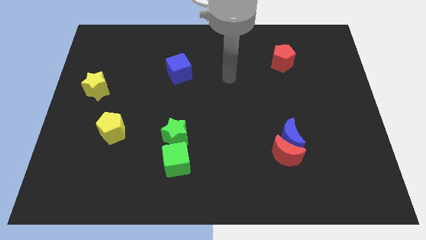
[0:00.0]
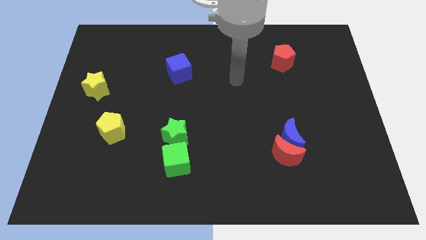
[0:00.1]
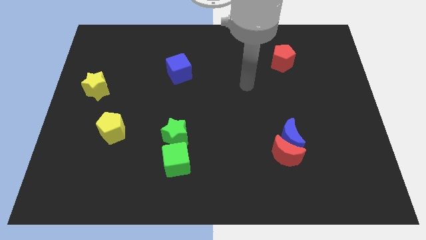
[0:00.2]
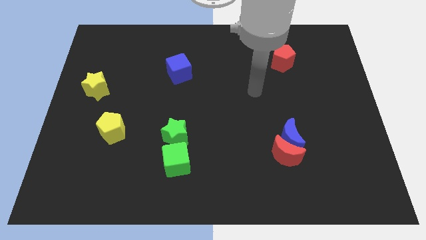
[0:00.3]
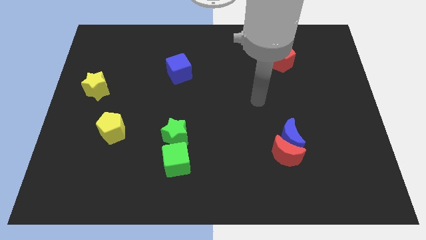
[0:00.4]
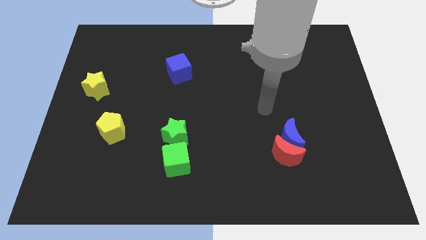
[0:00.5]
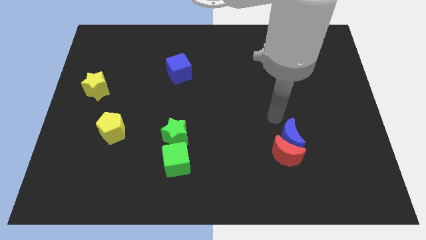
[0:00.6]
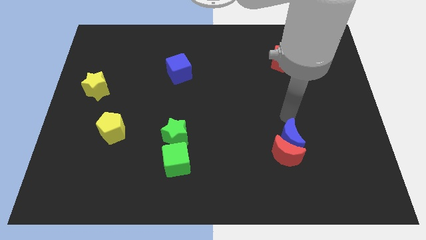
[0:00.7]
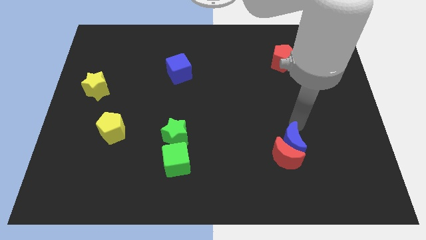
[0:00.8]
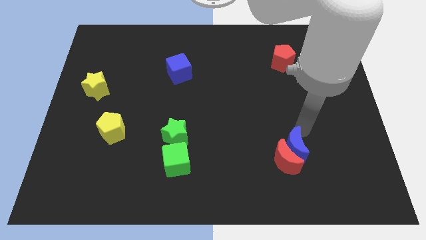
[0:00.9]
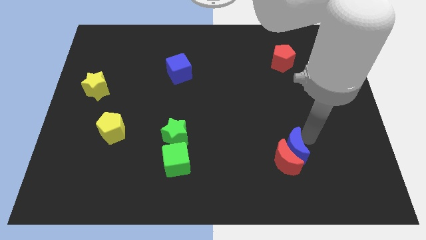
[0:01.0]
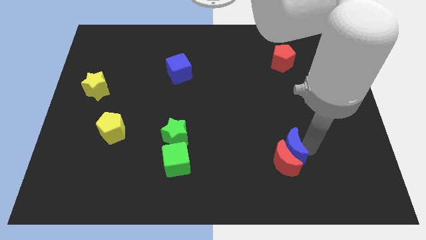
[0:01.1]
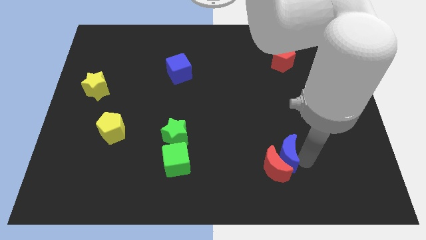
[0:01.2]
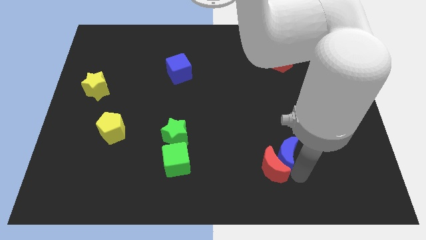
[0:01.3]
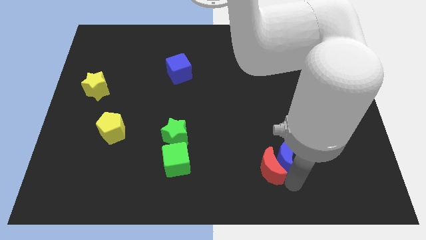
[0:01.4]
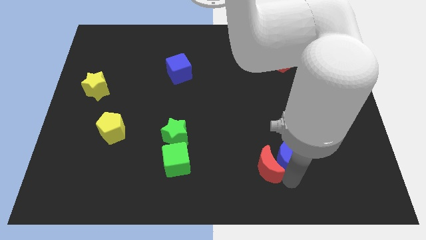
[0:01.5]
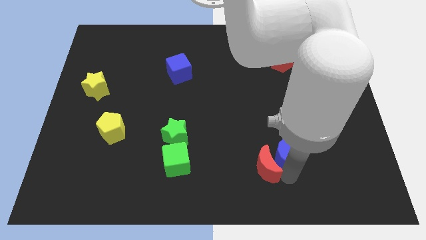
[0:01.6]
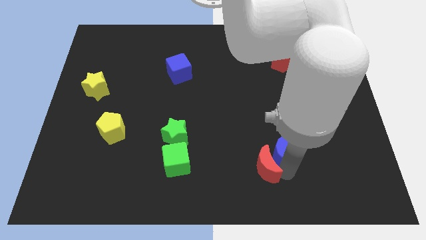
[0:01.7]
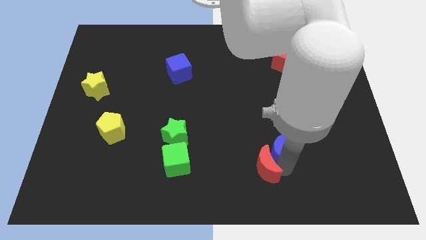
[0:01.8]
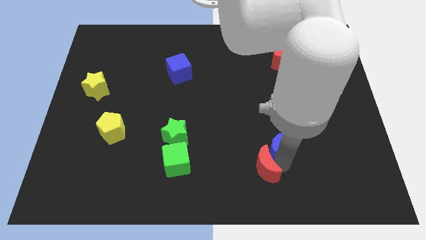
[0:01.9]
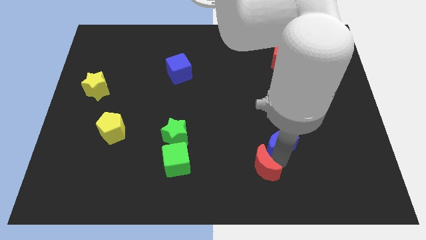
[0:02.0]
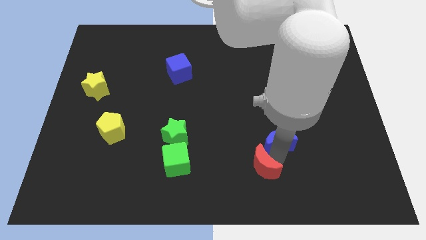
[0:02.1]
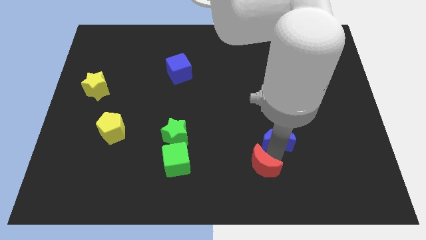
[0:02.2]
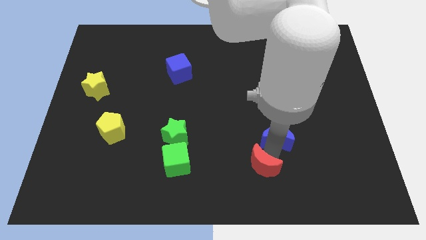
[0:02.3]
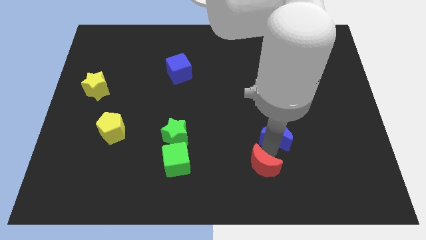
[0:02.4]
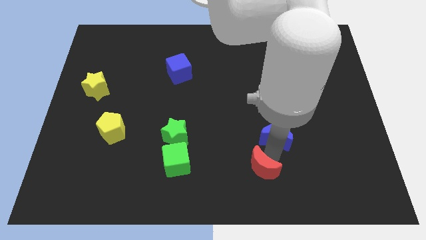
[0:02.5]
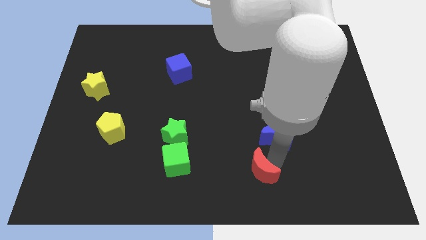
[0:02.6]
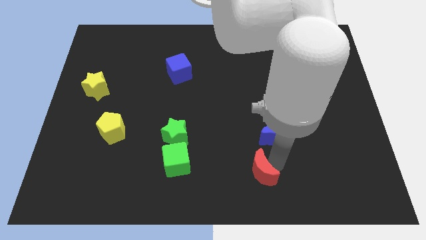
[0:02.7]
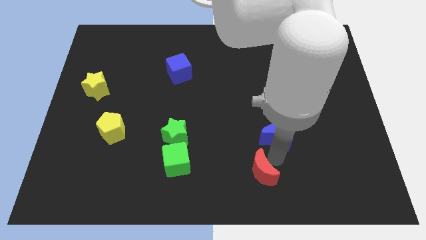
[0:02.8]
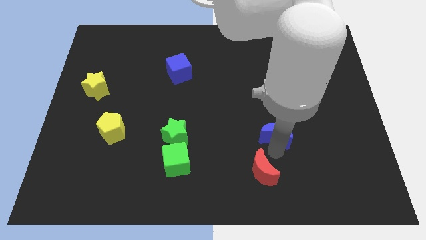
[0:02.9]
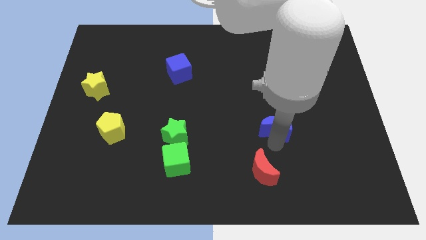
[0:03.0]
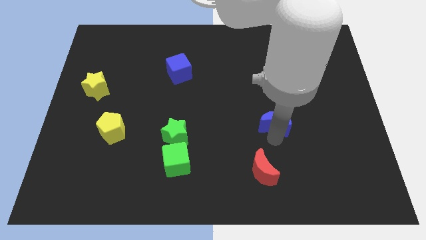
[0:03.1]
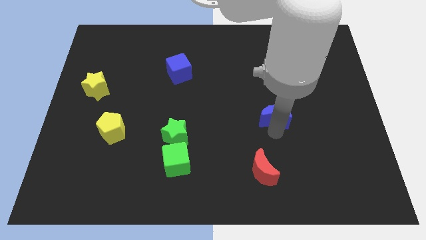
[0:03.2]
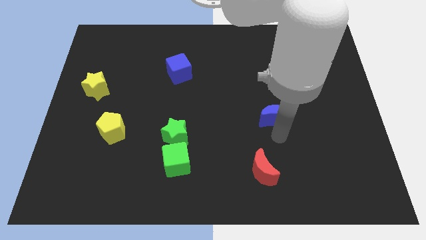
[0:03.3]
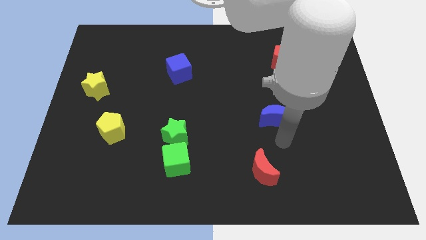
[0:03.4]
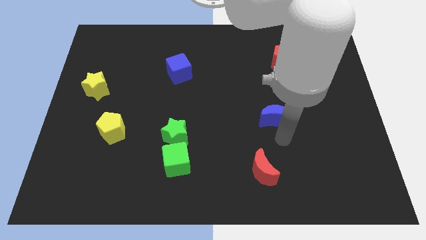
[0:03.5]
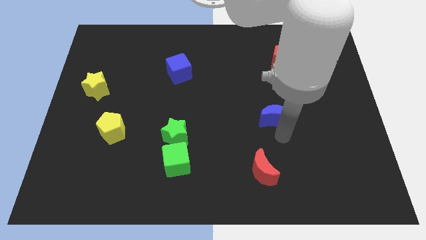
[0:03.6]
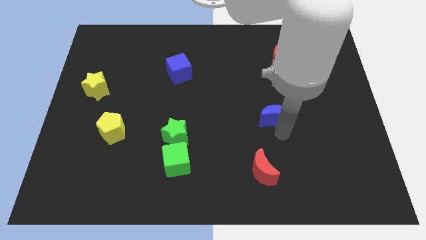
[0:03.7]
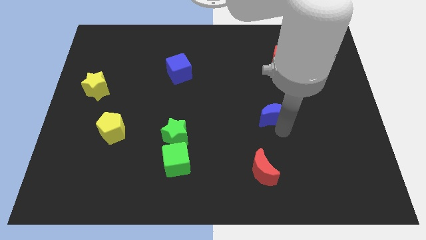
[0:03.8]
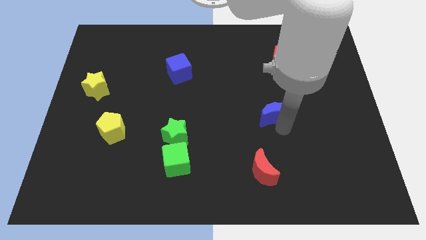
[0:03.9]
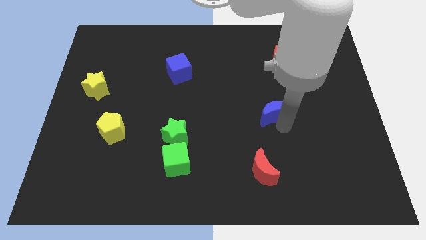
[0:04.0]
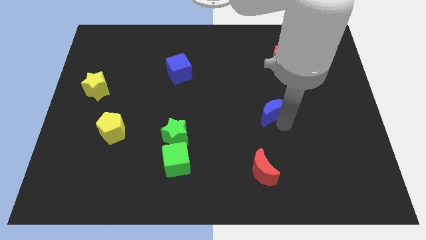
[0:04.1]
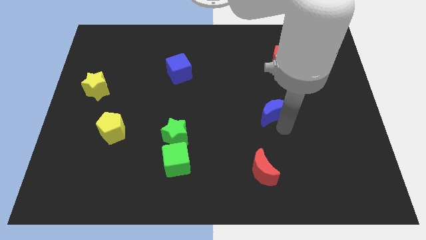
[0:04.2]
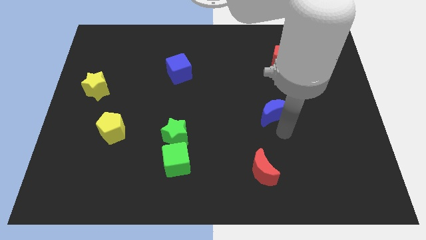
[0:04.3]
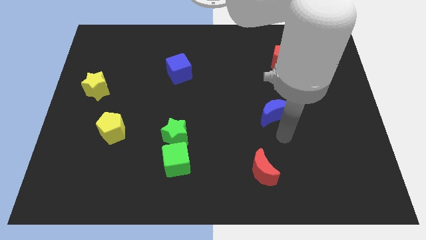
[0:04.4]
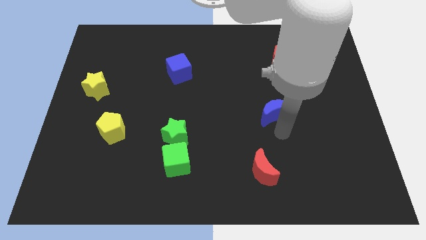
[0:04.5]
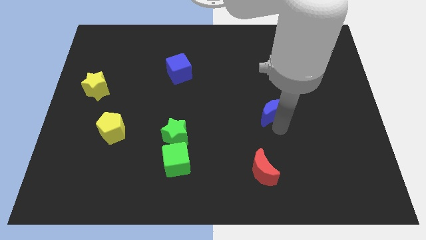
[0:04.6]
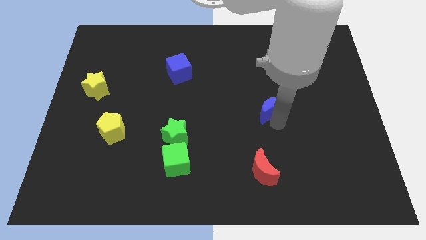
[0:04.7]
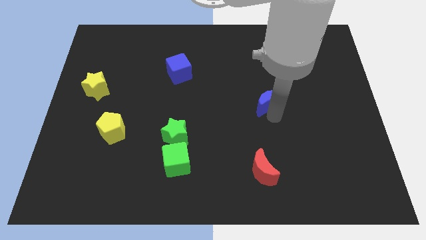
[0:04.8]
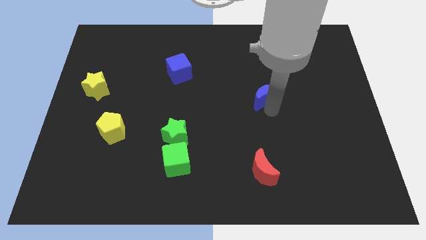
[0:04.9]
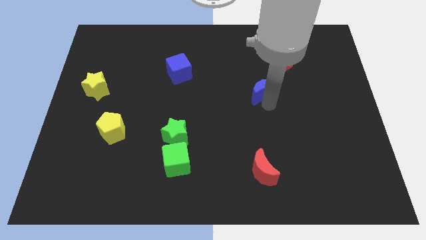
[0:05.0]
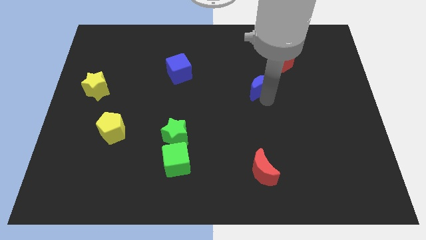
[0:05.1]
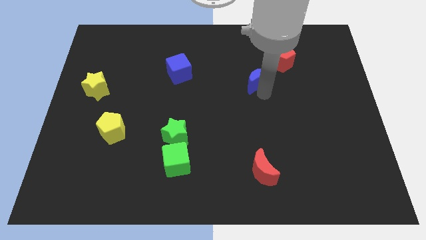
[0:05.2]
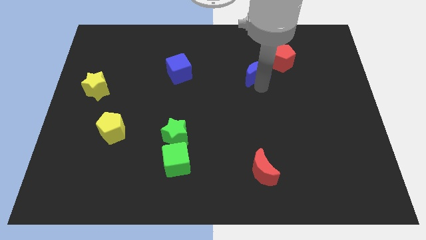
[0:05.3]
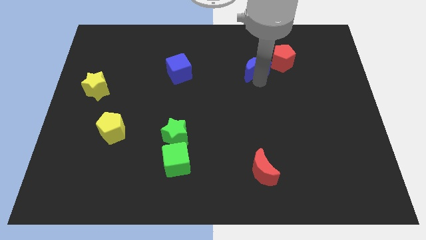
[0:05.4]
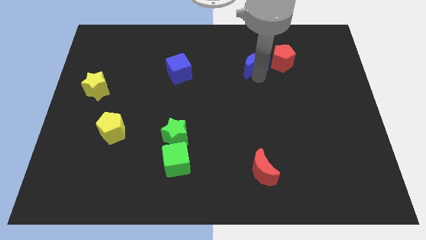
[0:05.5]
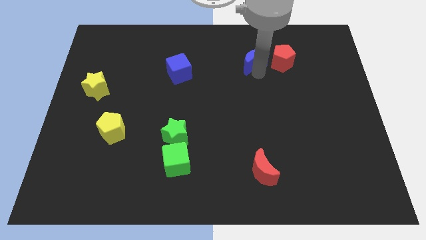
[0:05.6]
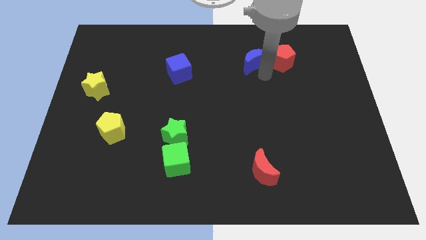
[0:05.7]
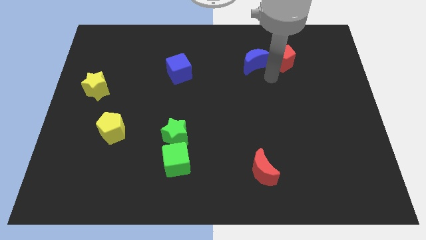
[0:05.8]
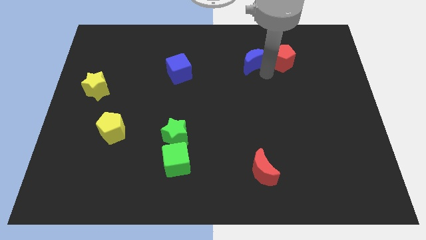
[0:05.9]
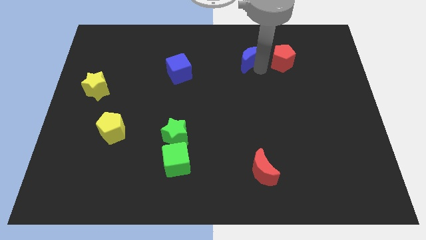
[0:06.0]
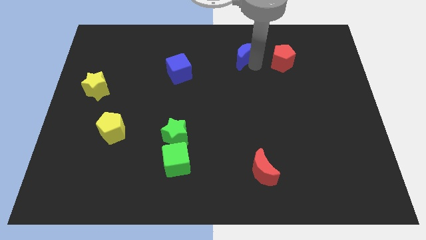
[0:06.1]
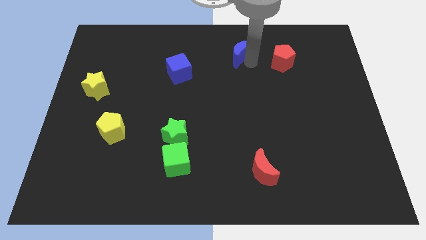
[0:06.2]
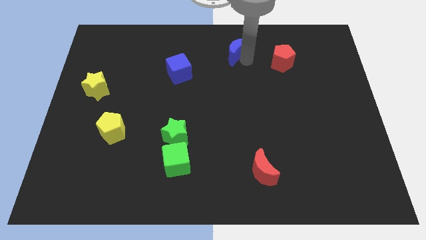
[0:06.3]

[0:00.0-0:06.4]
move the blue moon to the towards your base

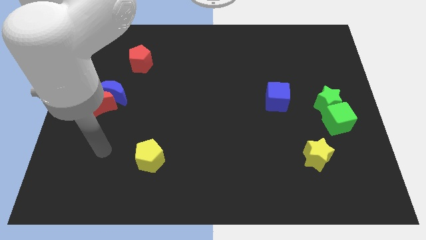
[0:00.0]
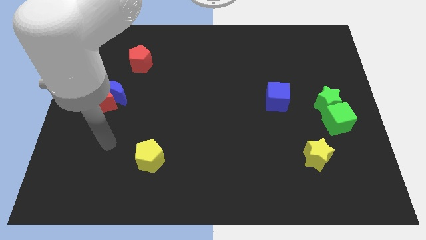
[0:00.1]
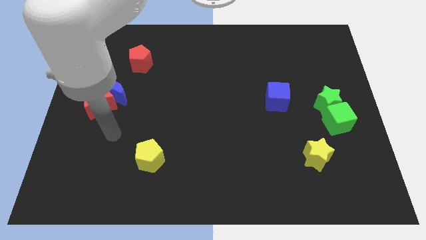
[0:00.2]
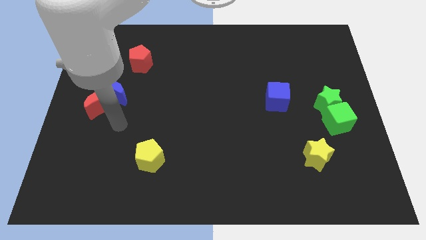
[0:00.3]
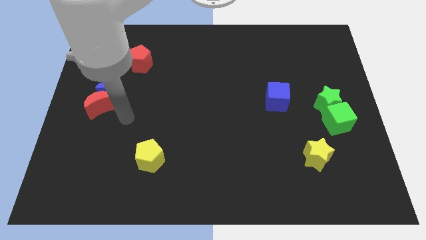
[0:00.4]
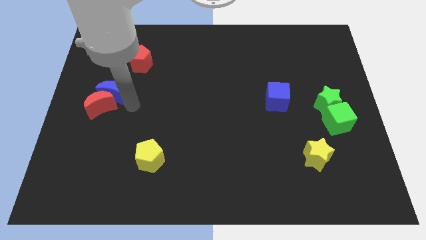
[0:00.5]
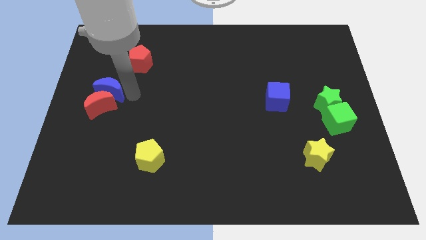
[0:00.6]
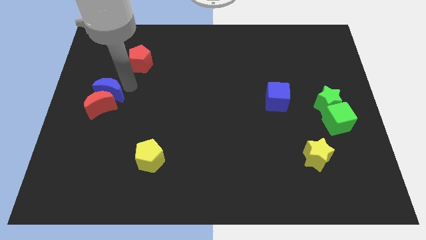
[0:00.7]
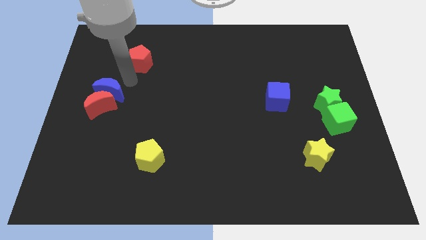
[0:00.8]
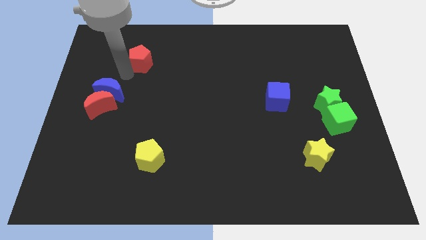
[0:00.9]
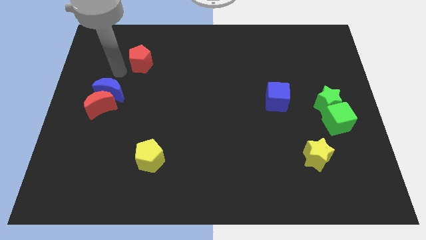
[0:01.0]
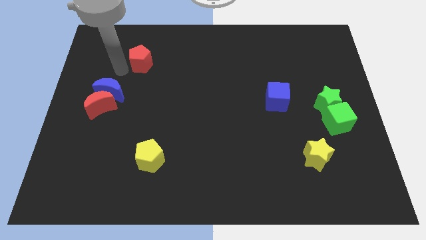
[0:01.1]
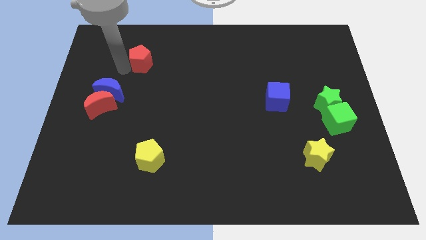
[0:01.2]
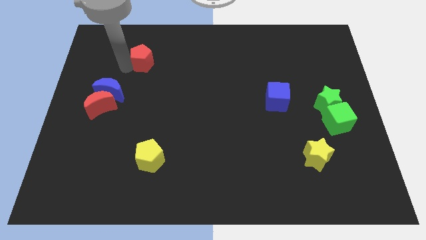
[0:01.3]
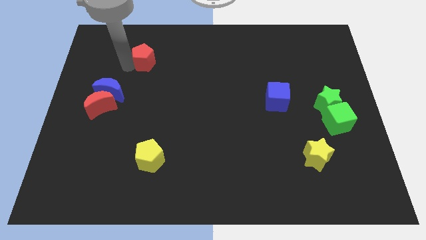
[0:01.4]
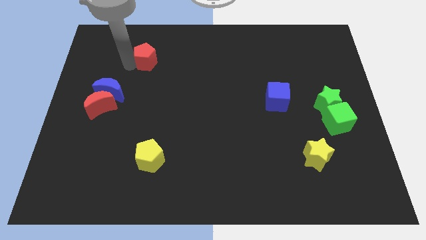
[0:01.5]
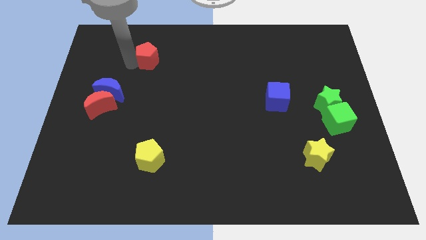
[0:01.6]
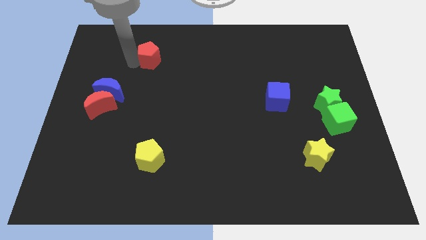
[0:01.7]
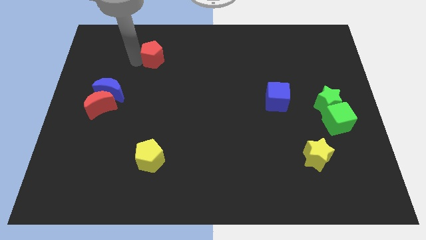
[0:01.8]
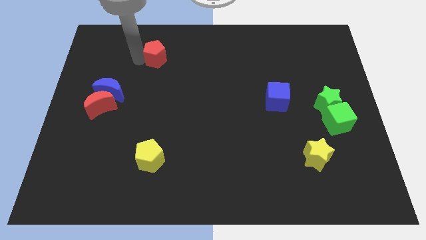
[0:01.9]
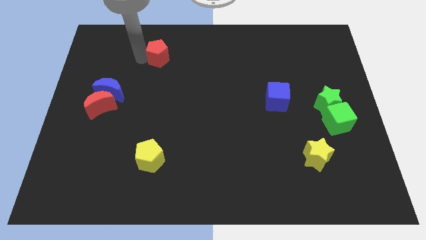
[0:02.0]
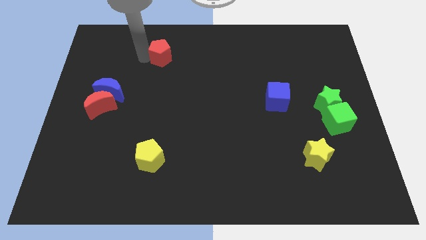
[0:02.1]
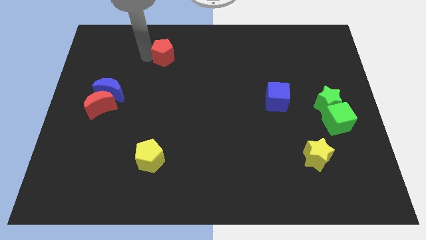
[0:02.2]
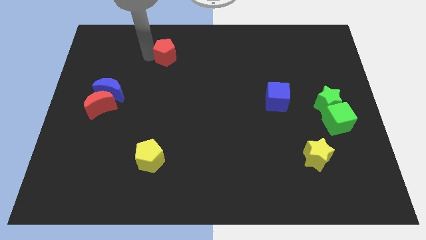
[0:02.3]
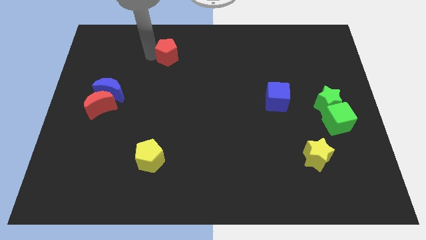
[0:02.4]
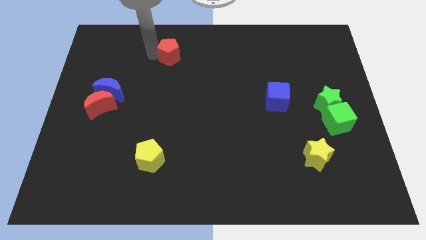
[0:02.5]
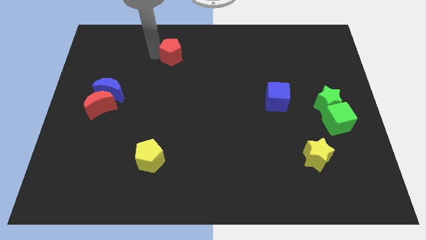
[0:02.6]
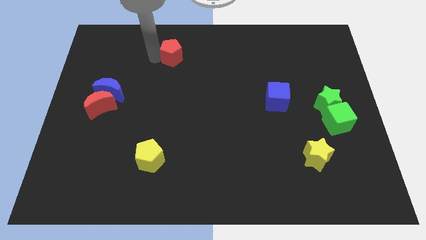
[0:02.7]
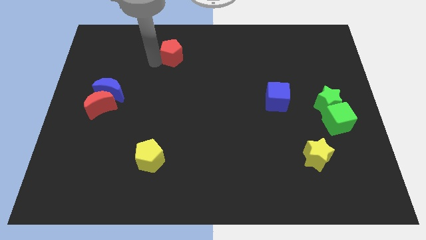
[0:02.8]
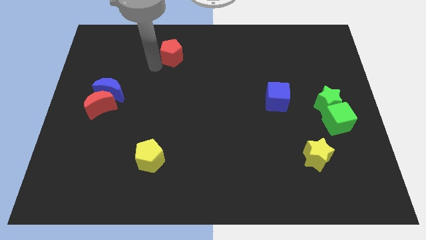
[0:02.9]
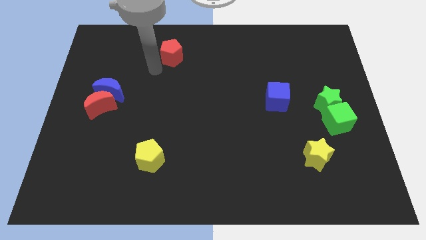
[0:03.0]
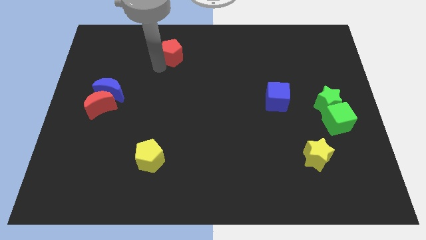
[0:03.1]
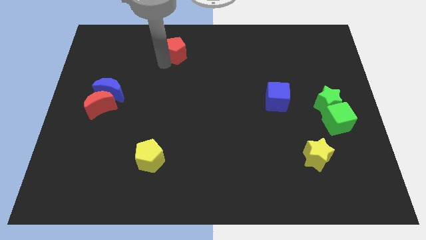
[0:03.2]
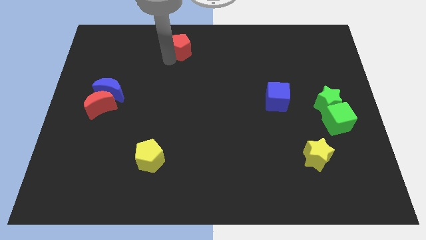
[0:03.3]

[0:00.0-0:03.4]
push the red pentagon to the top side
